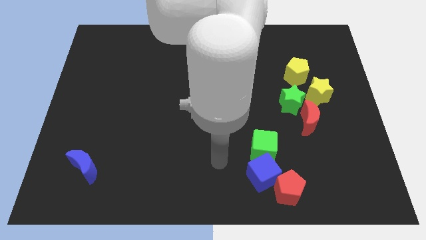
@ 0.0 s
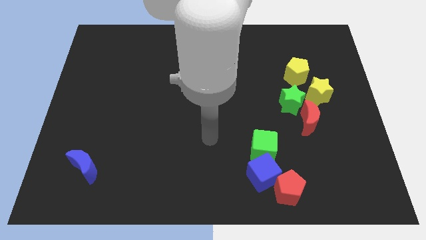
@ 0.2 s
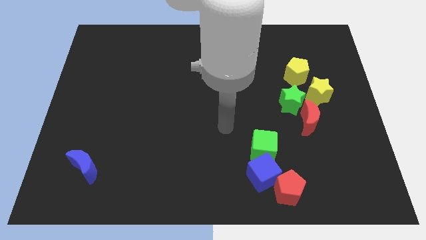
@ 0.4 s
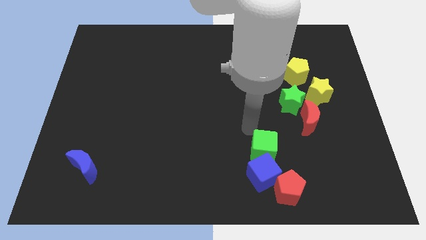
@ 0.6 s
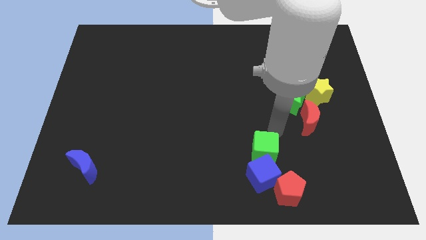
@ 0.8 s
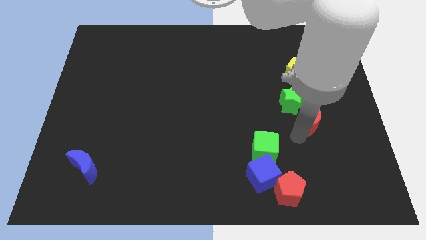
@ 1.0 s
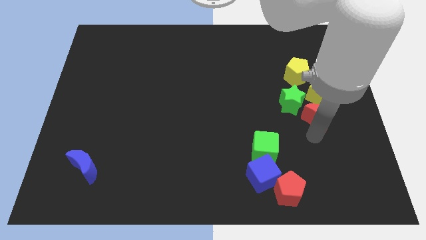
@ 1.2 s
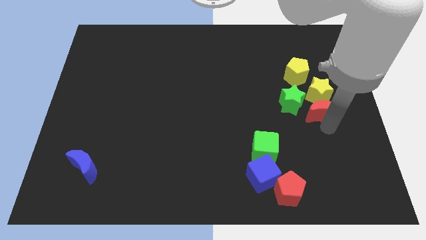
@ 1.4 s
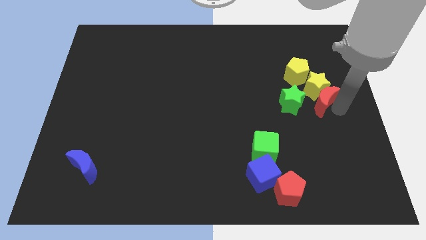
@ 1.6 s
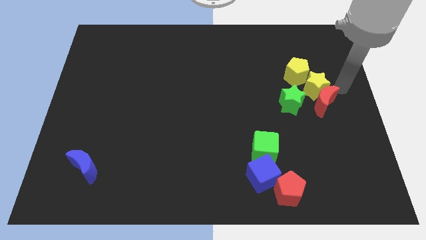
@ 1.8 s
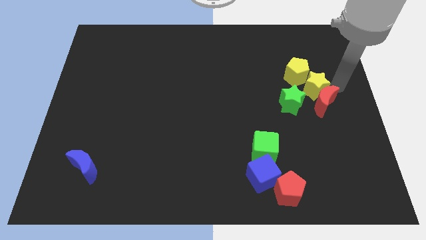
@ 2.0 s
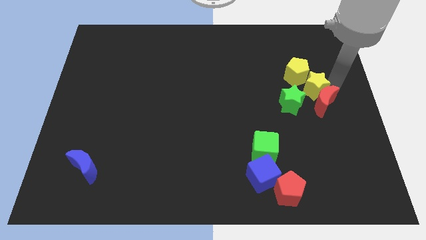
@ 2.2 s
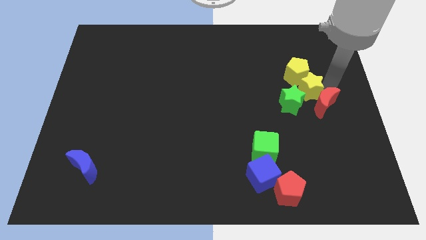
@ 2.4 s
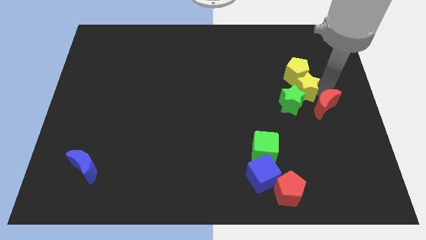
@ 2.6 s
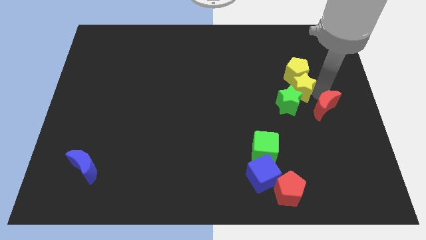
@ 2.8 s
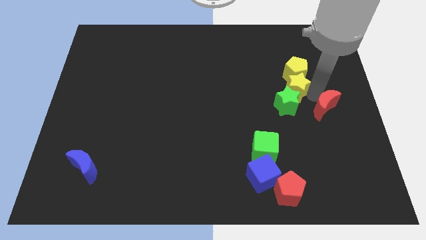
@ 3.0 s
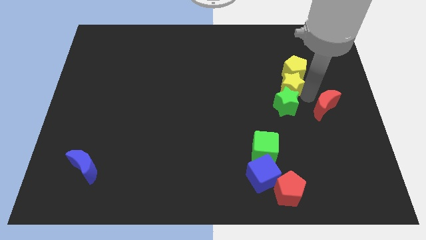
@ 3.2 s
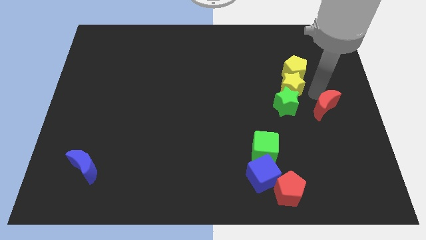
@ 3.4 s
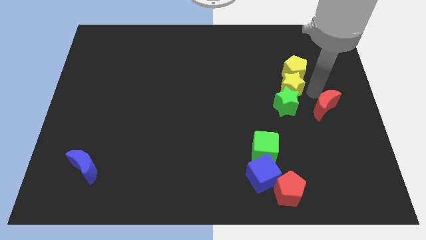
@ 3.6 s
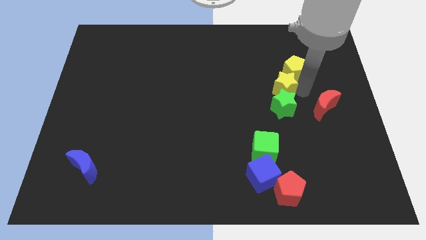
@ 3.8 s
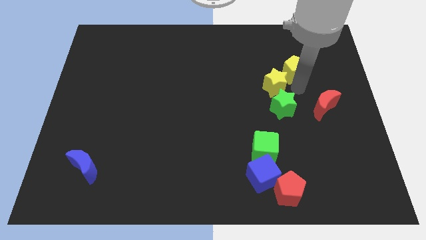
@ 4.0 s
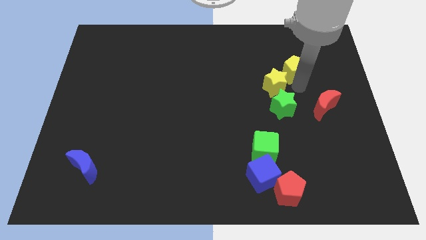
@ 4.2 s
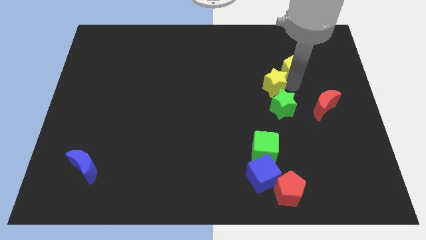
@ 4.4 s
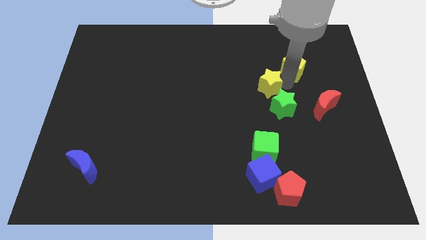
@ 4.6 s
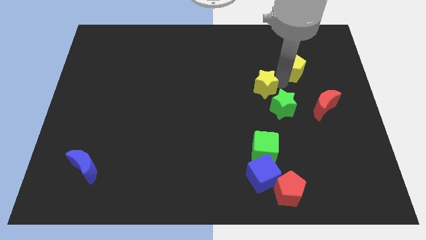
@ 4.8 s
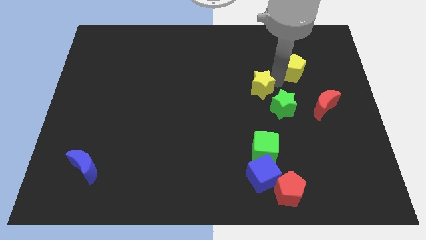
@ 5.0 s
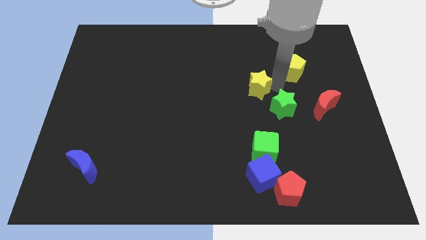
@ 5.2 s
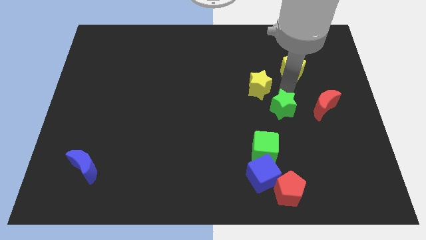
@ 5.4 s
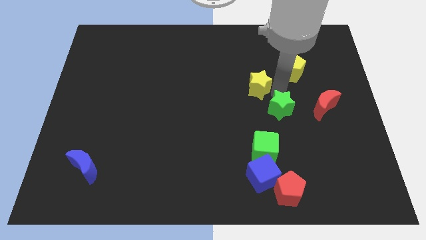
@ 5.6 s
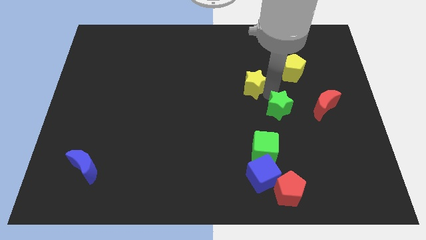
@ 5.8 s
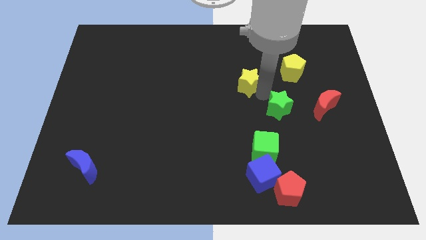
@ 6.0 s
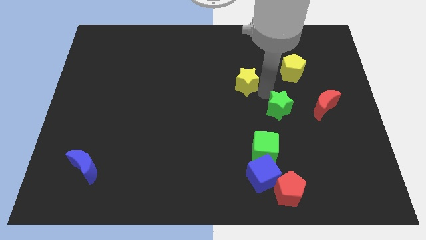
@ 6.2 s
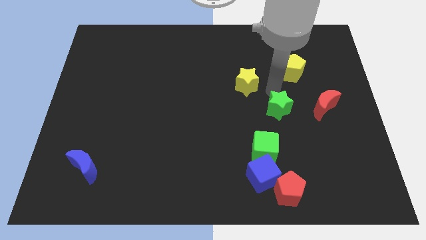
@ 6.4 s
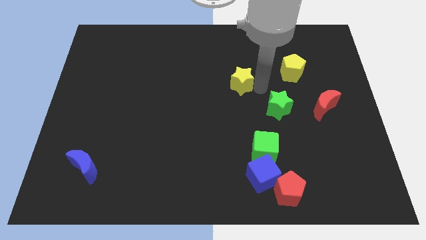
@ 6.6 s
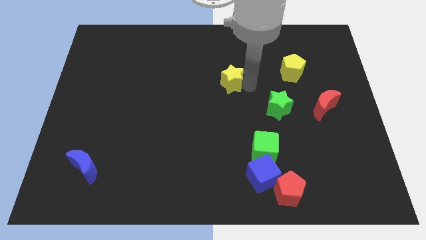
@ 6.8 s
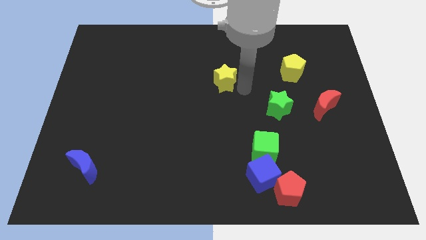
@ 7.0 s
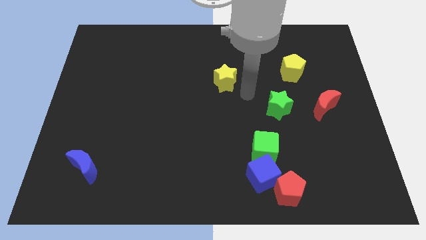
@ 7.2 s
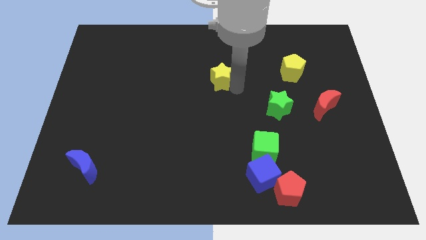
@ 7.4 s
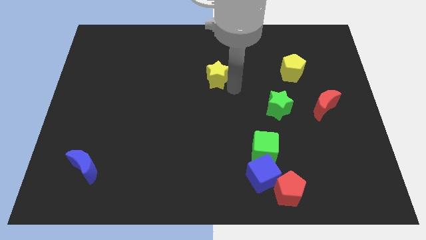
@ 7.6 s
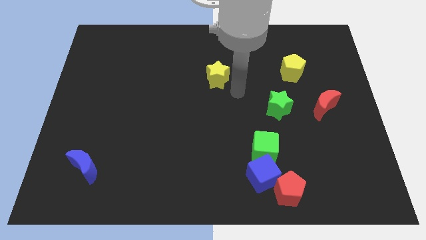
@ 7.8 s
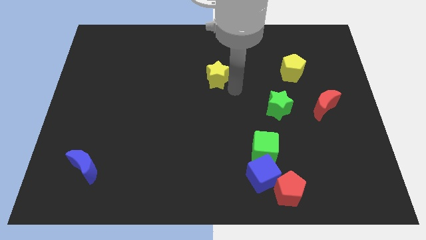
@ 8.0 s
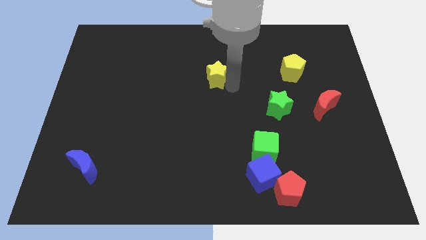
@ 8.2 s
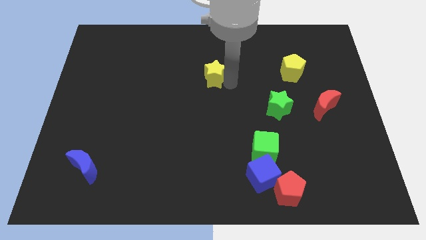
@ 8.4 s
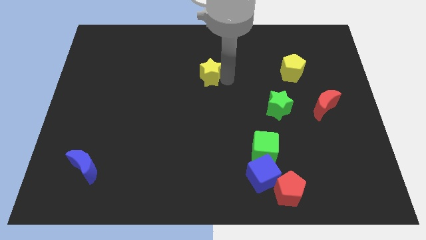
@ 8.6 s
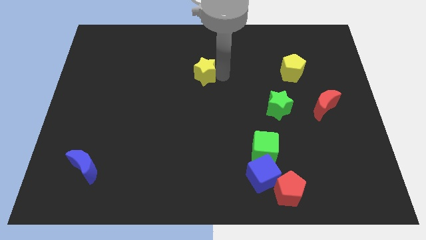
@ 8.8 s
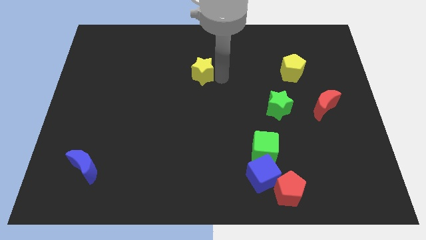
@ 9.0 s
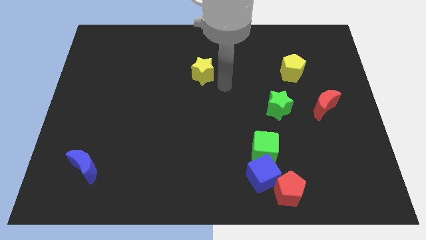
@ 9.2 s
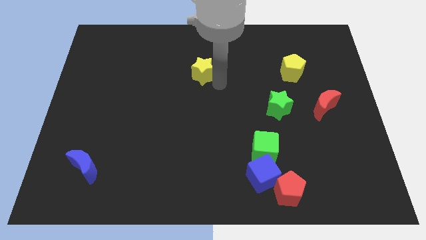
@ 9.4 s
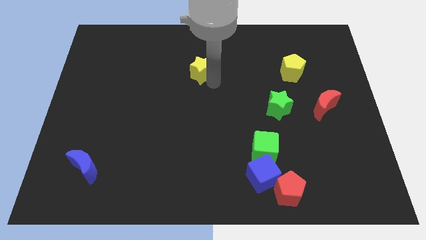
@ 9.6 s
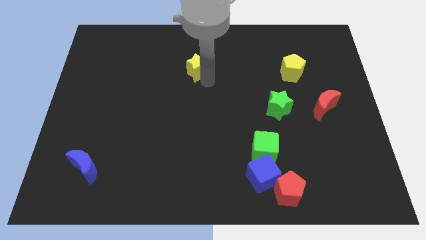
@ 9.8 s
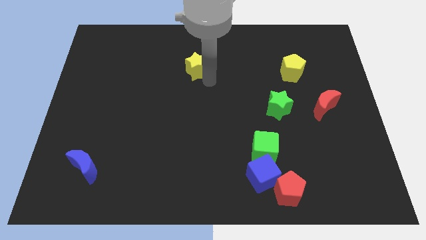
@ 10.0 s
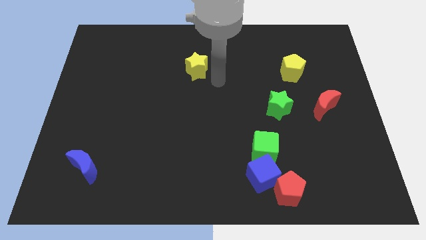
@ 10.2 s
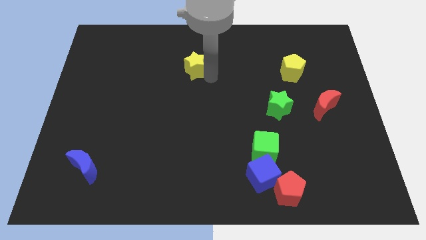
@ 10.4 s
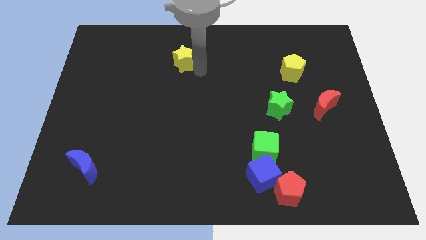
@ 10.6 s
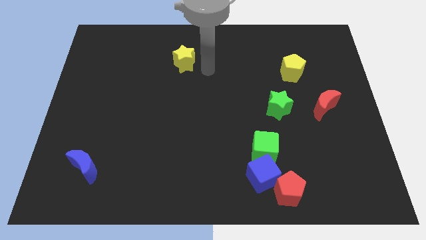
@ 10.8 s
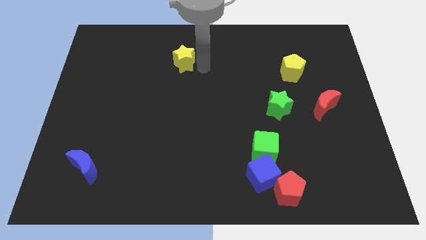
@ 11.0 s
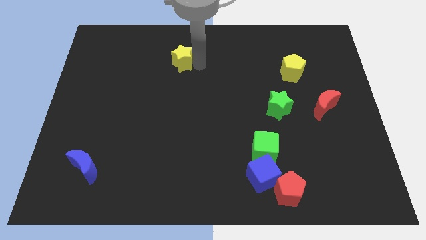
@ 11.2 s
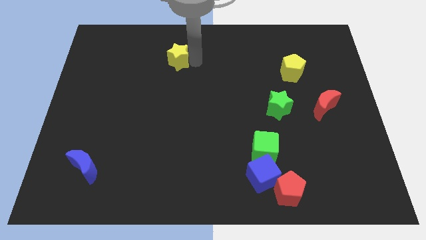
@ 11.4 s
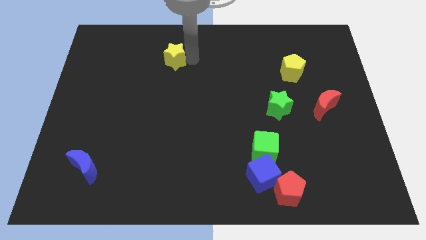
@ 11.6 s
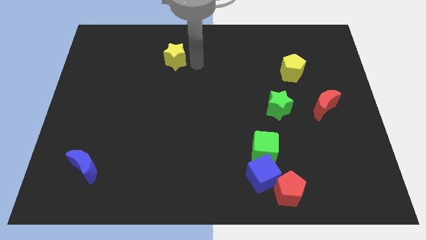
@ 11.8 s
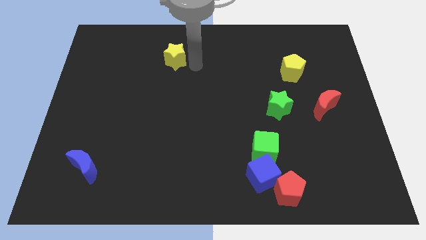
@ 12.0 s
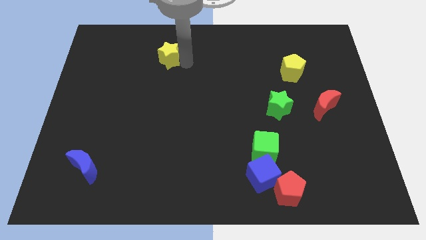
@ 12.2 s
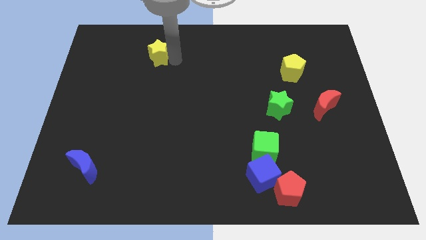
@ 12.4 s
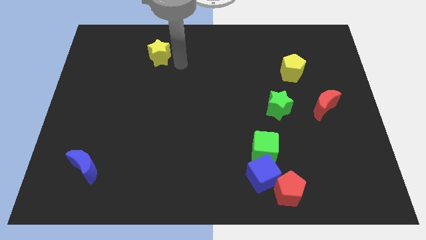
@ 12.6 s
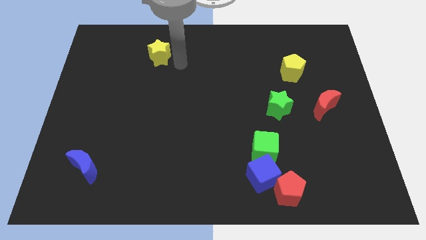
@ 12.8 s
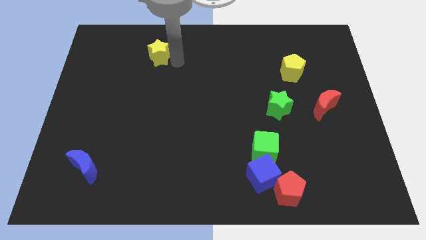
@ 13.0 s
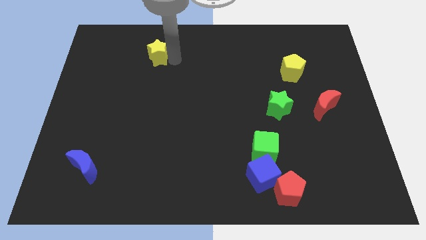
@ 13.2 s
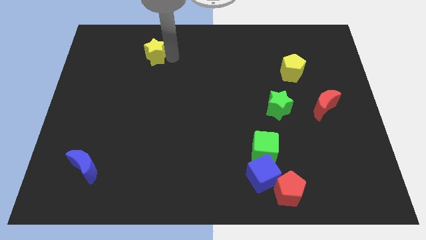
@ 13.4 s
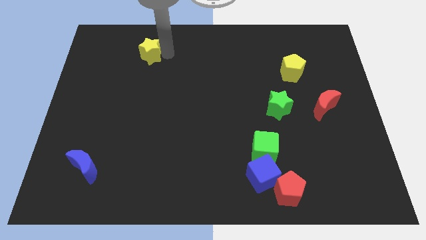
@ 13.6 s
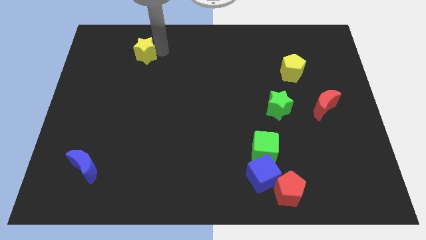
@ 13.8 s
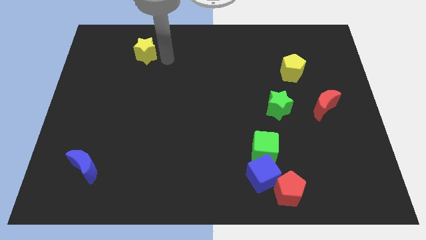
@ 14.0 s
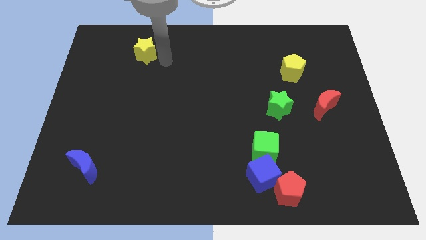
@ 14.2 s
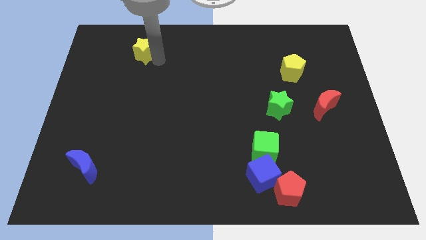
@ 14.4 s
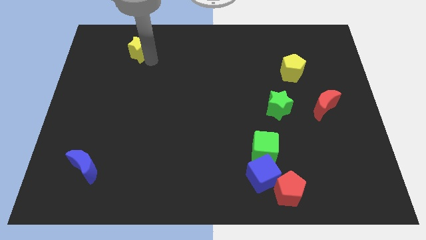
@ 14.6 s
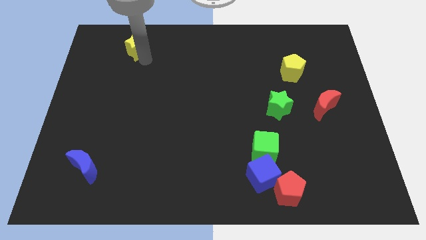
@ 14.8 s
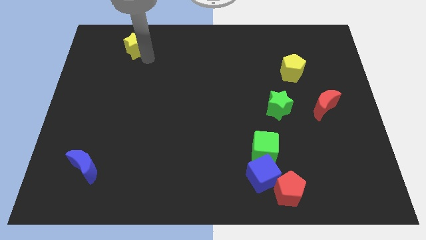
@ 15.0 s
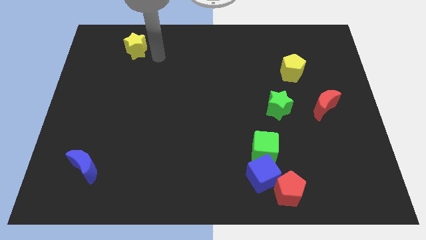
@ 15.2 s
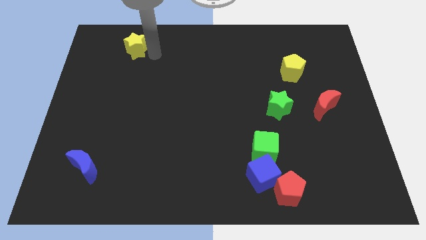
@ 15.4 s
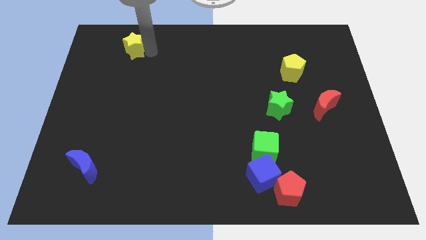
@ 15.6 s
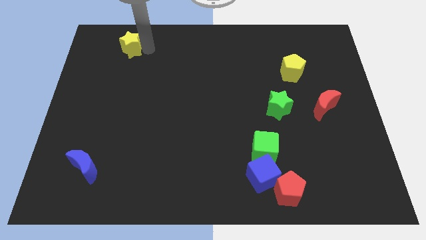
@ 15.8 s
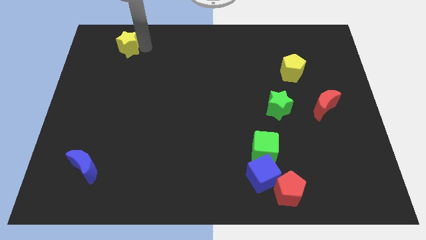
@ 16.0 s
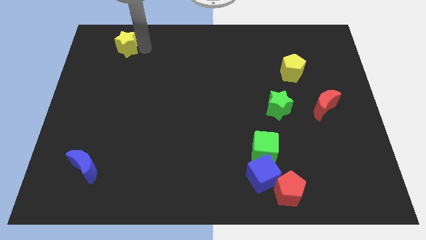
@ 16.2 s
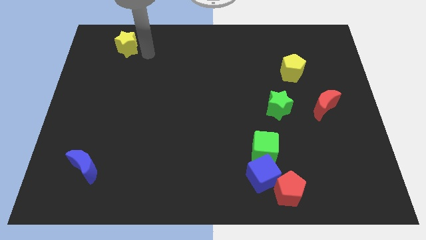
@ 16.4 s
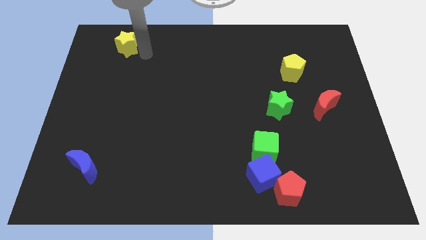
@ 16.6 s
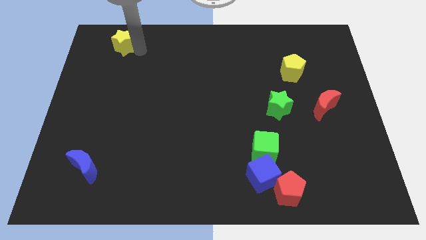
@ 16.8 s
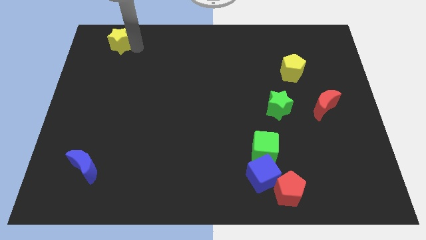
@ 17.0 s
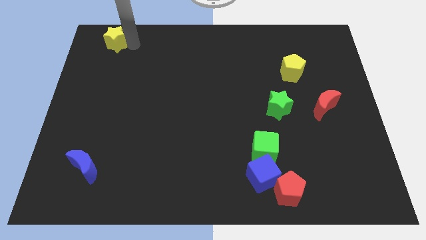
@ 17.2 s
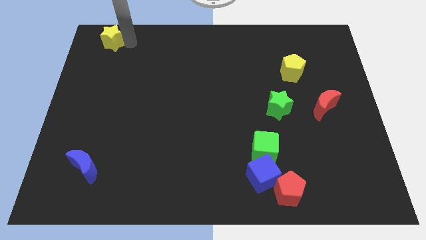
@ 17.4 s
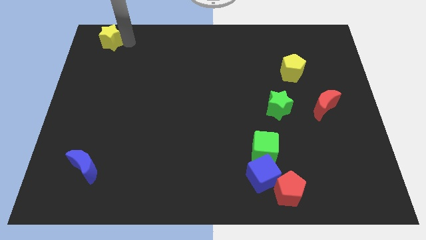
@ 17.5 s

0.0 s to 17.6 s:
slide the yellow star to the top left of the board
